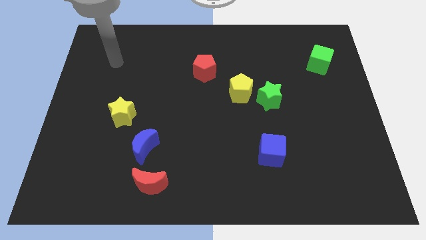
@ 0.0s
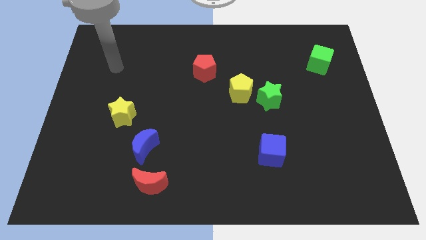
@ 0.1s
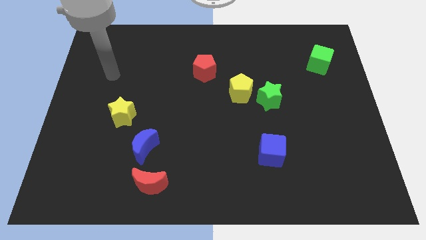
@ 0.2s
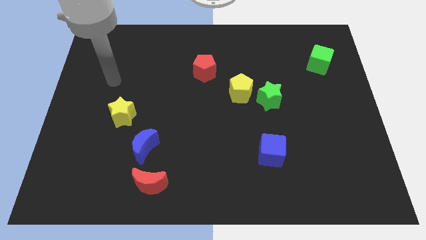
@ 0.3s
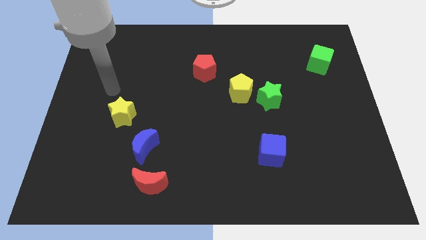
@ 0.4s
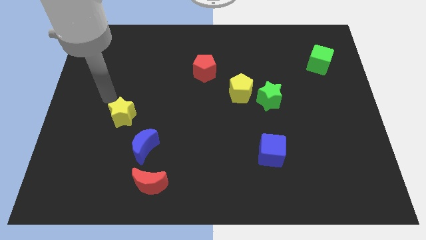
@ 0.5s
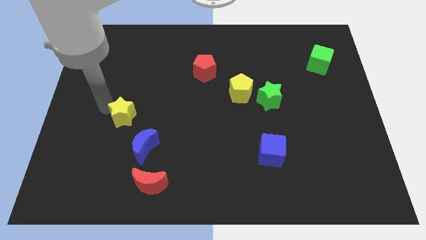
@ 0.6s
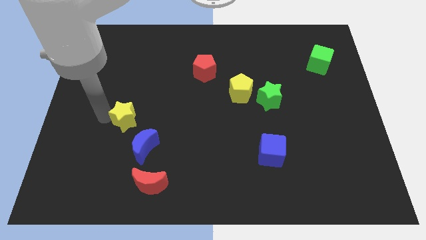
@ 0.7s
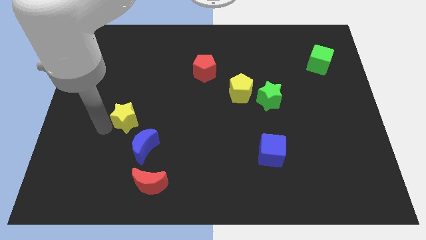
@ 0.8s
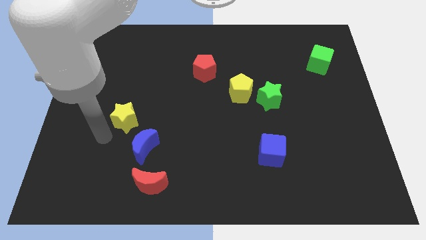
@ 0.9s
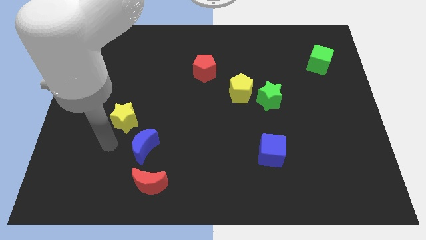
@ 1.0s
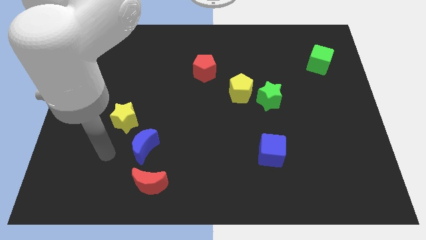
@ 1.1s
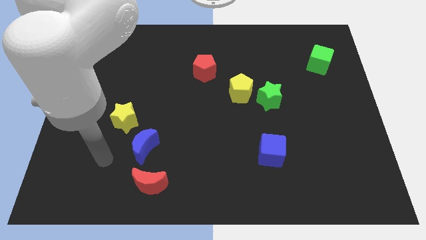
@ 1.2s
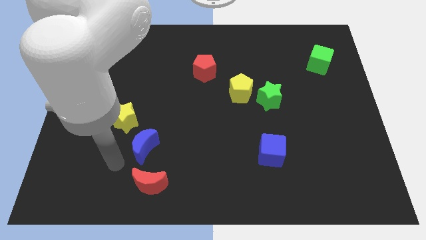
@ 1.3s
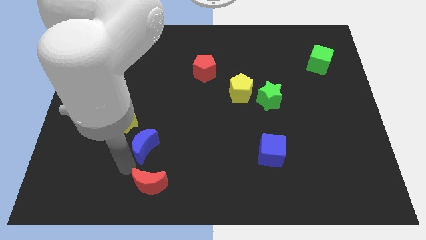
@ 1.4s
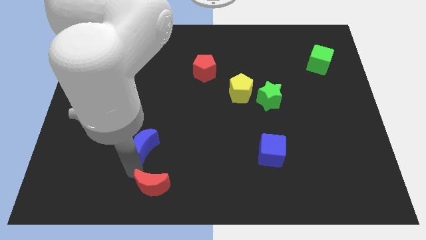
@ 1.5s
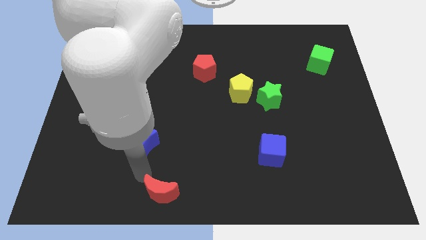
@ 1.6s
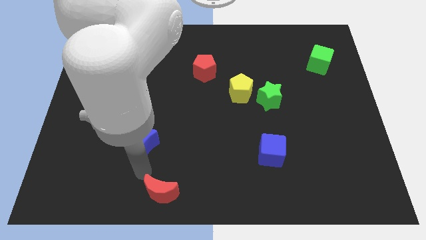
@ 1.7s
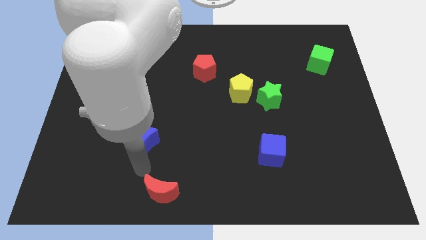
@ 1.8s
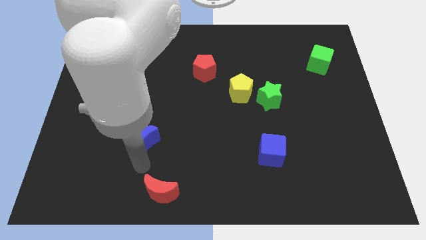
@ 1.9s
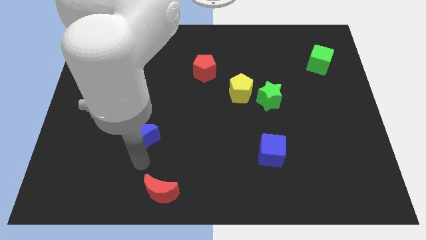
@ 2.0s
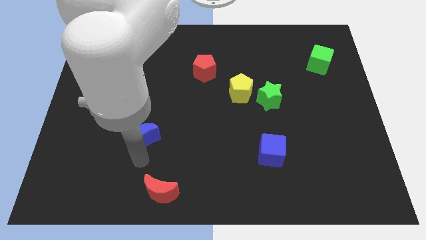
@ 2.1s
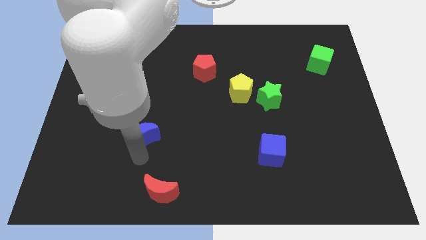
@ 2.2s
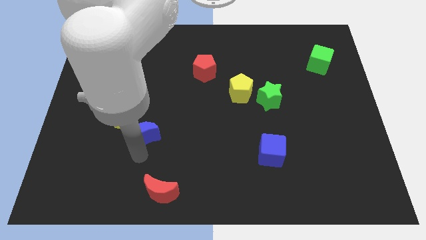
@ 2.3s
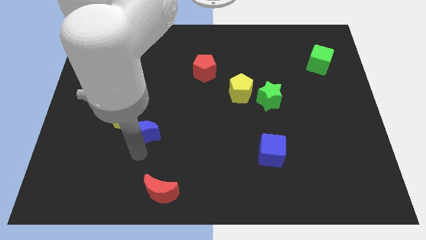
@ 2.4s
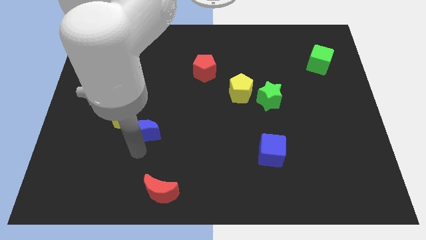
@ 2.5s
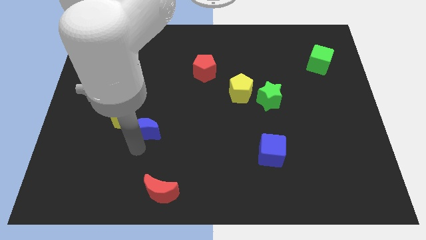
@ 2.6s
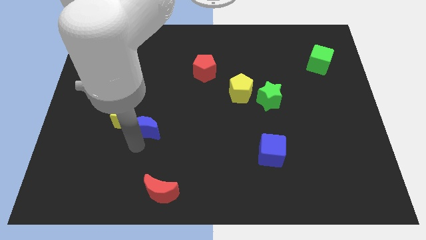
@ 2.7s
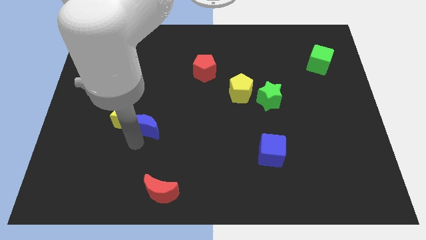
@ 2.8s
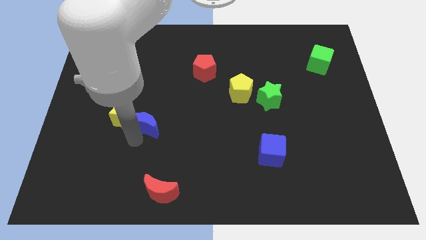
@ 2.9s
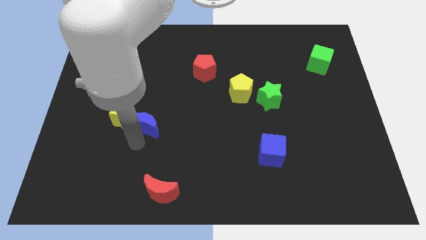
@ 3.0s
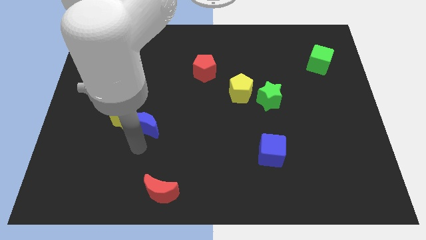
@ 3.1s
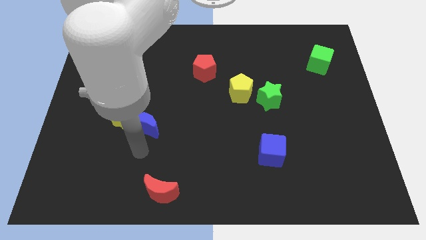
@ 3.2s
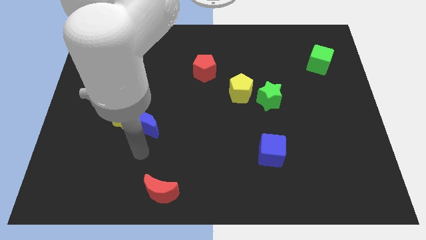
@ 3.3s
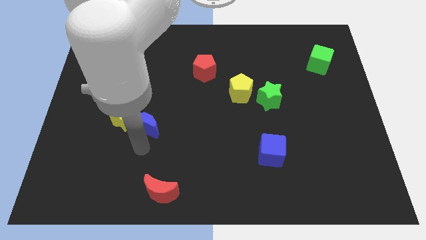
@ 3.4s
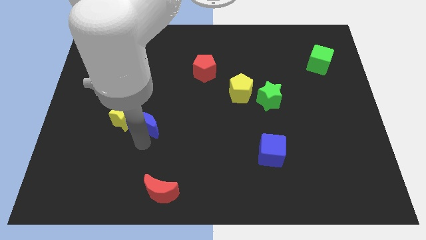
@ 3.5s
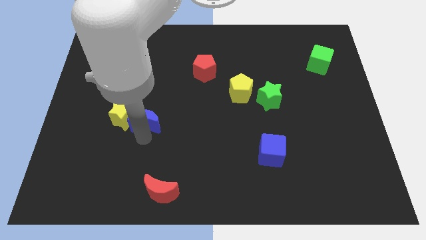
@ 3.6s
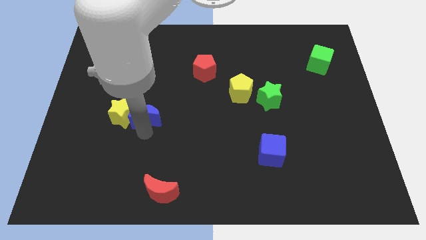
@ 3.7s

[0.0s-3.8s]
slightly slide the blue moon up

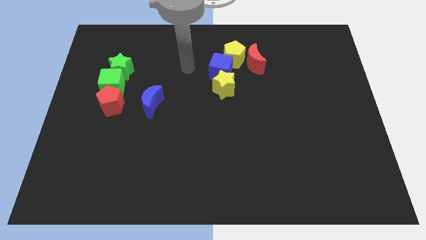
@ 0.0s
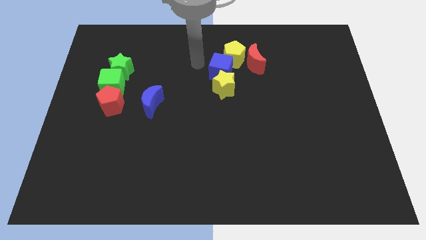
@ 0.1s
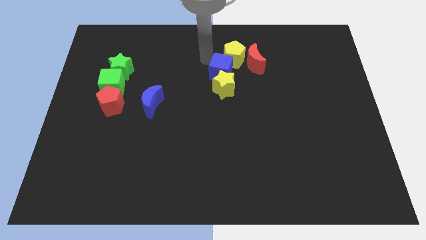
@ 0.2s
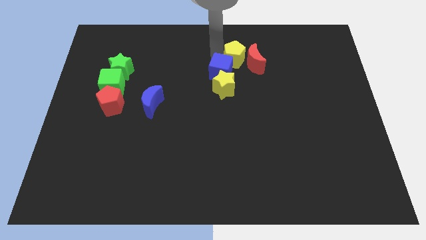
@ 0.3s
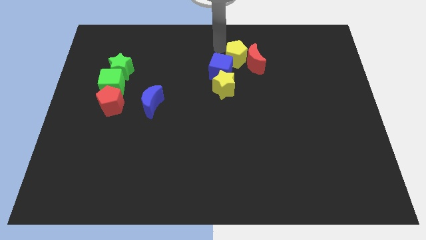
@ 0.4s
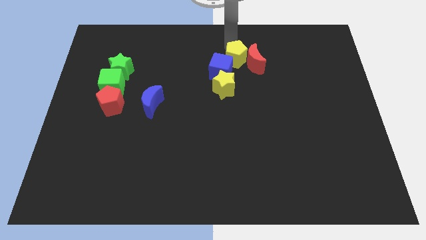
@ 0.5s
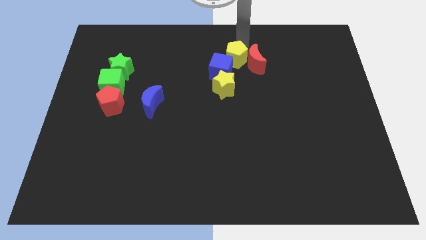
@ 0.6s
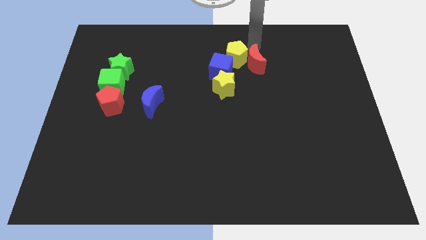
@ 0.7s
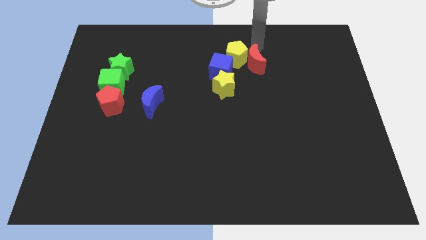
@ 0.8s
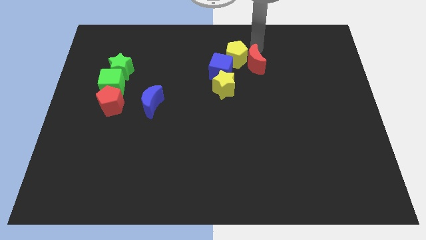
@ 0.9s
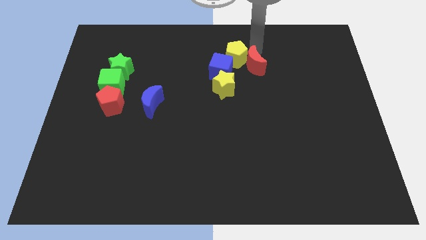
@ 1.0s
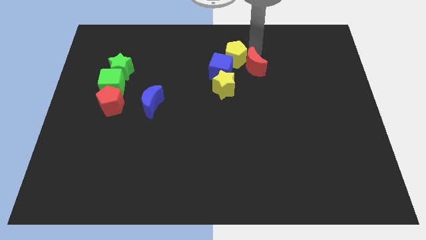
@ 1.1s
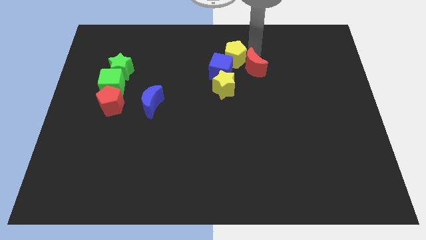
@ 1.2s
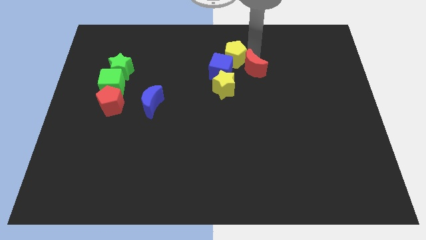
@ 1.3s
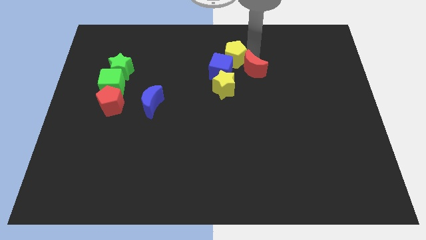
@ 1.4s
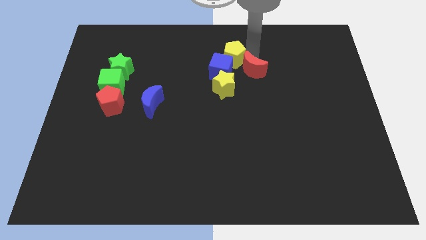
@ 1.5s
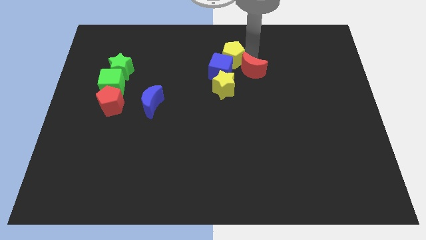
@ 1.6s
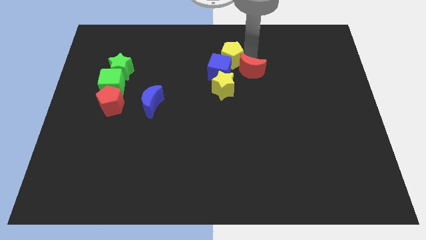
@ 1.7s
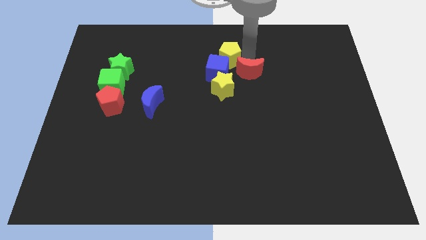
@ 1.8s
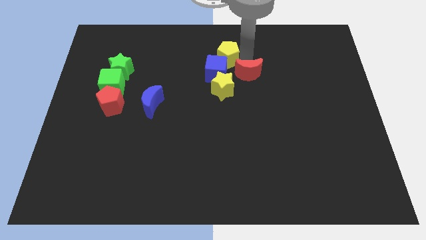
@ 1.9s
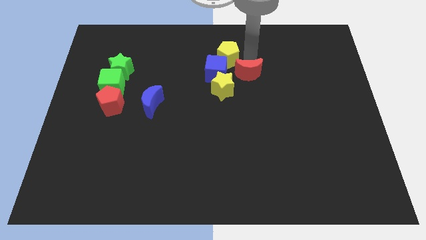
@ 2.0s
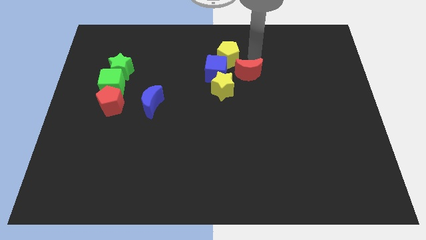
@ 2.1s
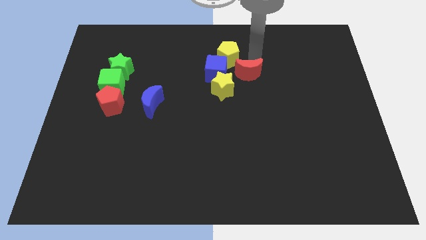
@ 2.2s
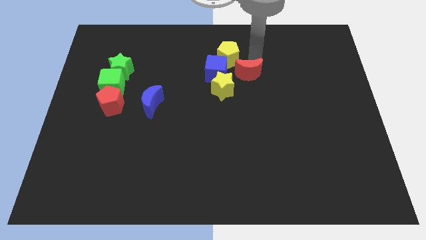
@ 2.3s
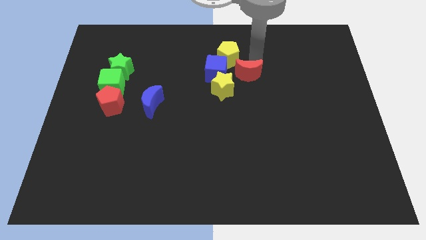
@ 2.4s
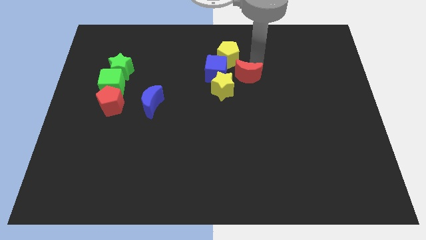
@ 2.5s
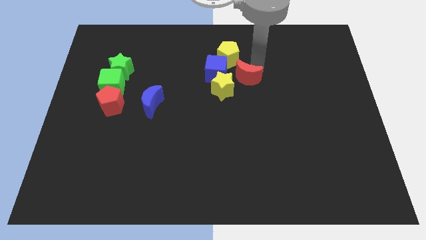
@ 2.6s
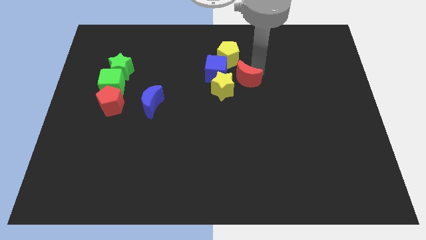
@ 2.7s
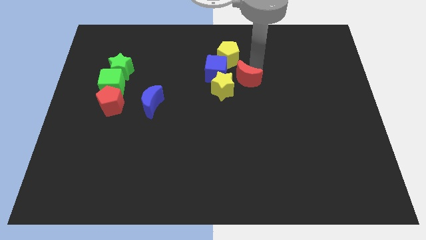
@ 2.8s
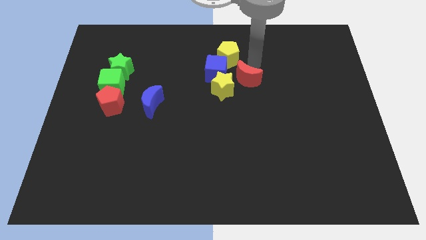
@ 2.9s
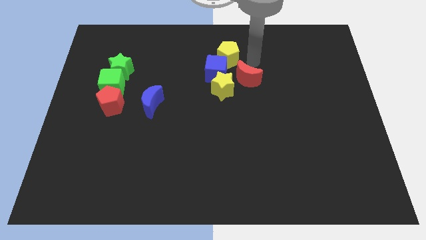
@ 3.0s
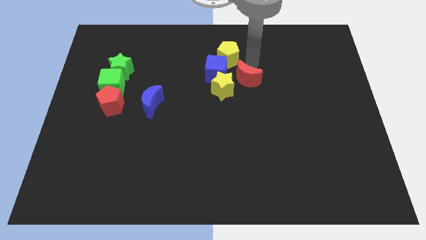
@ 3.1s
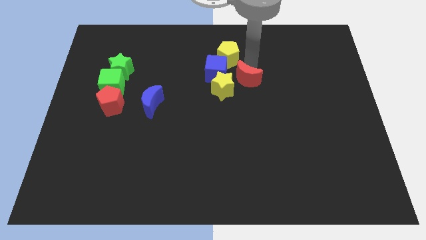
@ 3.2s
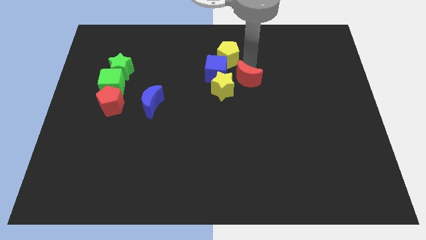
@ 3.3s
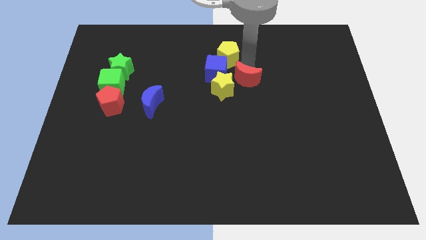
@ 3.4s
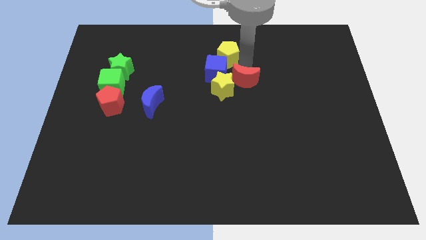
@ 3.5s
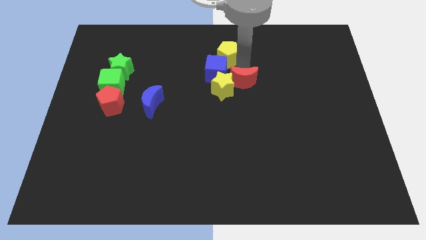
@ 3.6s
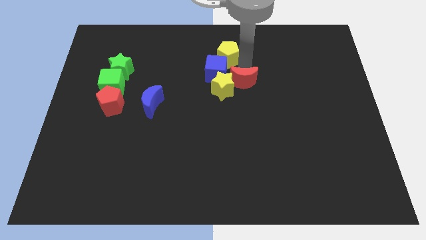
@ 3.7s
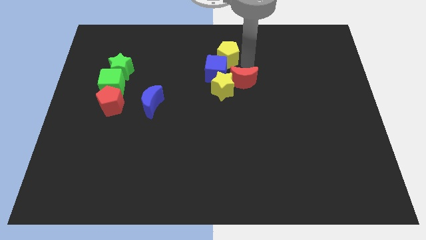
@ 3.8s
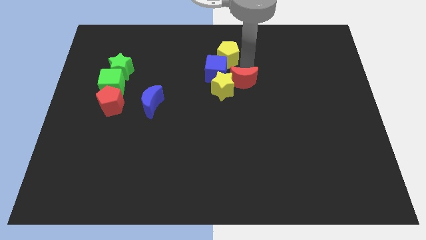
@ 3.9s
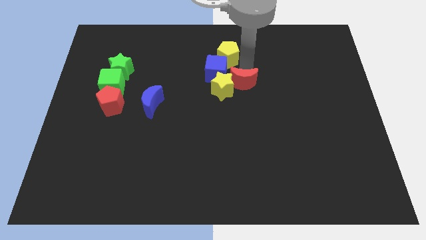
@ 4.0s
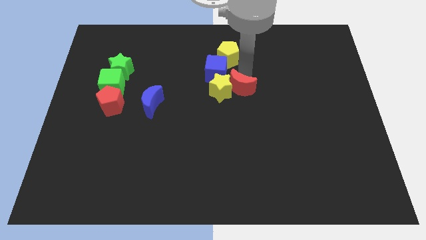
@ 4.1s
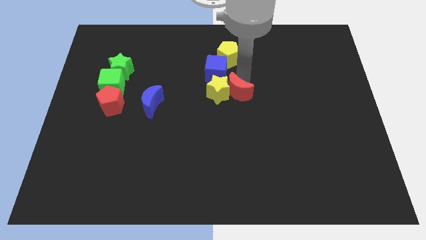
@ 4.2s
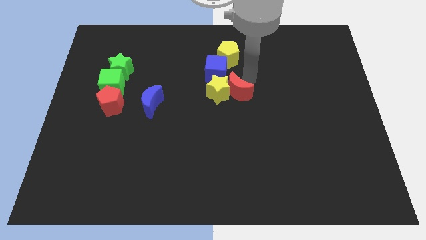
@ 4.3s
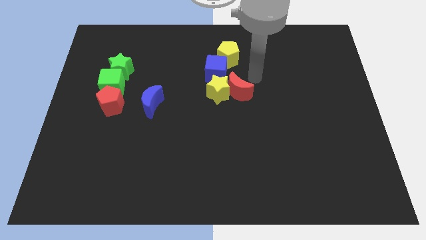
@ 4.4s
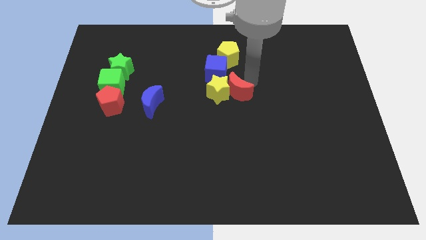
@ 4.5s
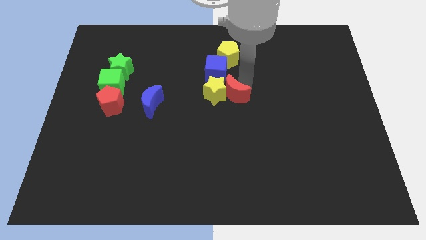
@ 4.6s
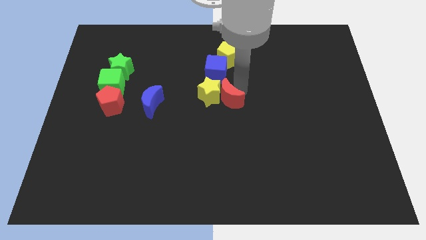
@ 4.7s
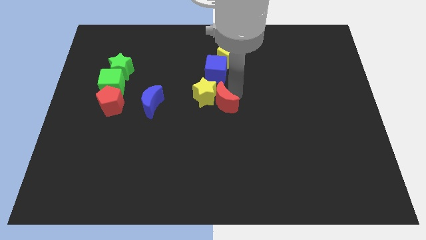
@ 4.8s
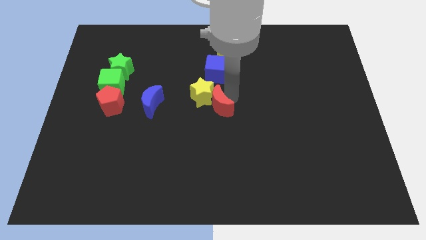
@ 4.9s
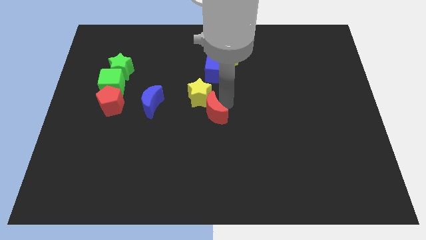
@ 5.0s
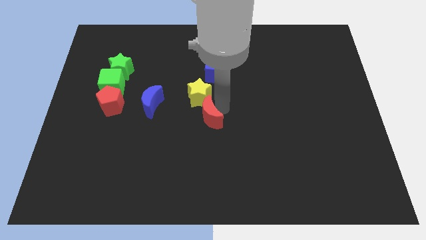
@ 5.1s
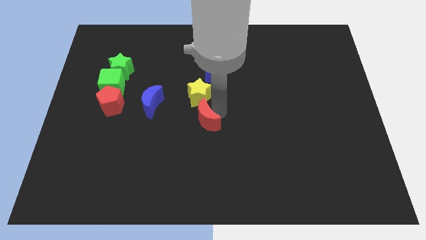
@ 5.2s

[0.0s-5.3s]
slide the red moon downwards and left
